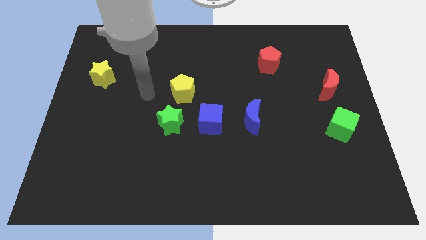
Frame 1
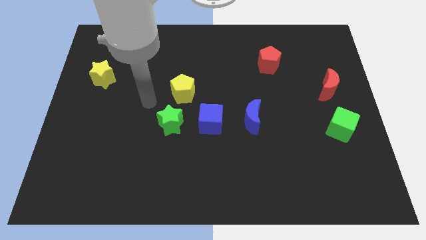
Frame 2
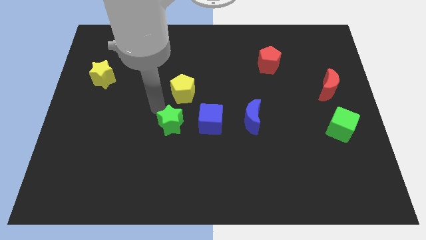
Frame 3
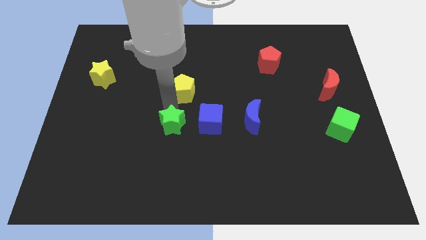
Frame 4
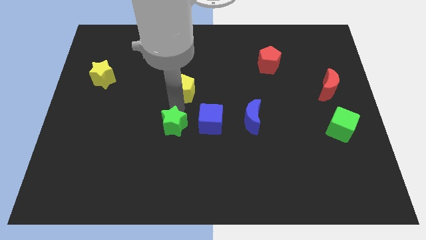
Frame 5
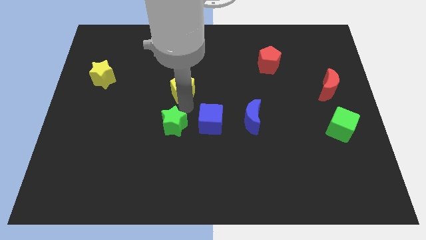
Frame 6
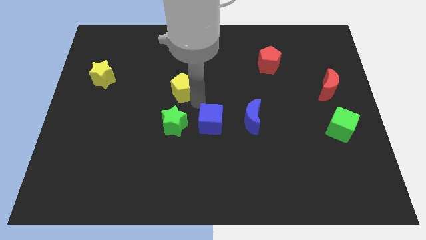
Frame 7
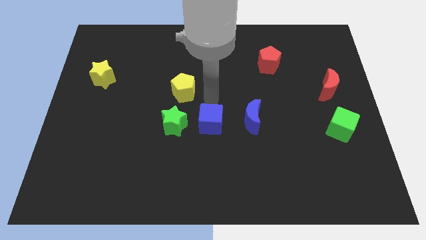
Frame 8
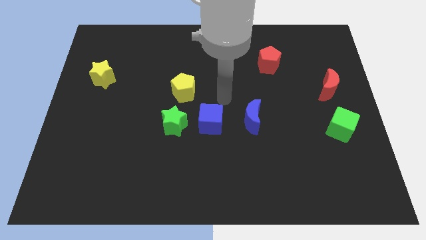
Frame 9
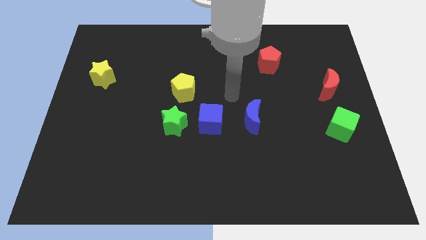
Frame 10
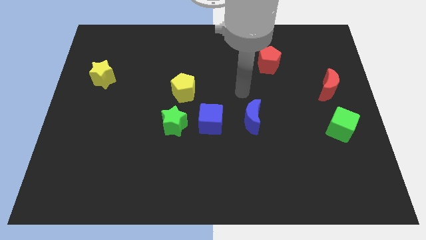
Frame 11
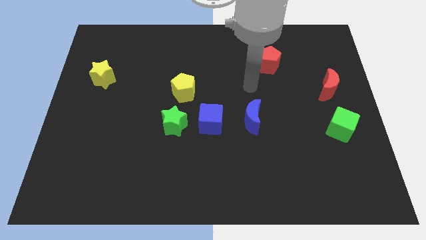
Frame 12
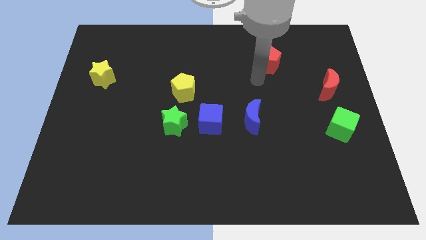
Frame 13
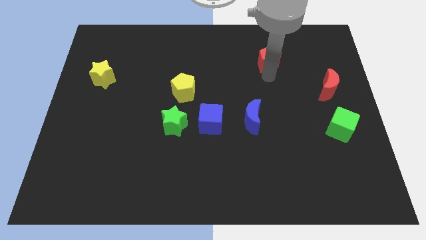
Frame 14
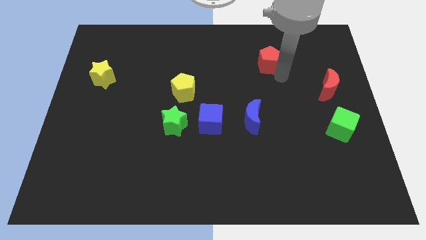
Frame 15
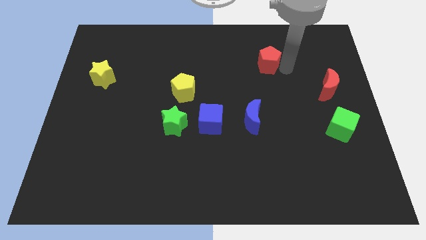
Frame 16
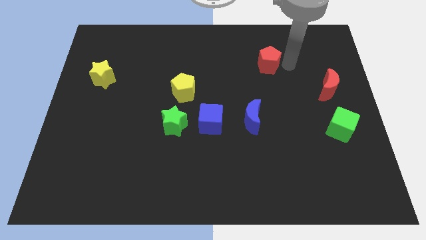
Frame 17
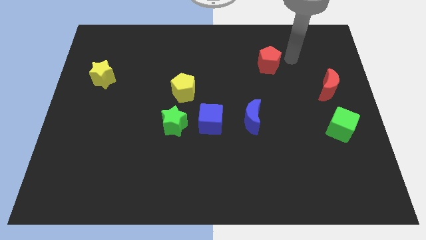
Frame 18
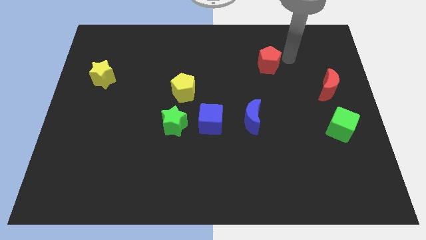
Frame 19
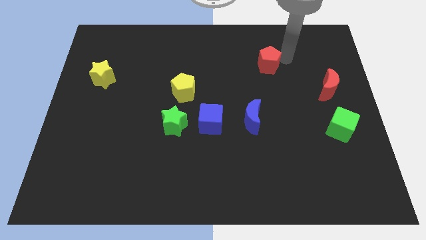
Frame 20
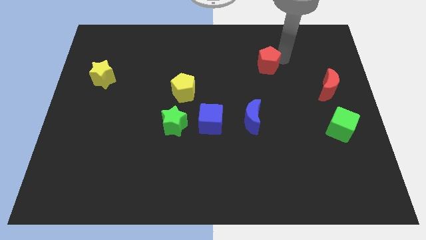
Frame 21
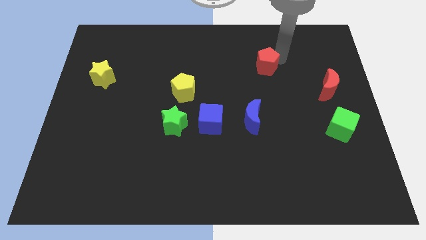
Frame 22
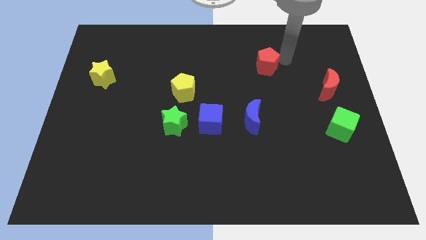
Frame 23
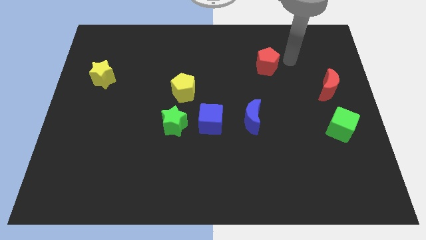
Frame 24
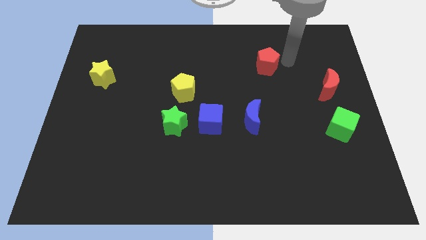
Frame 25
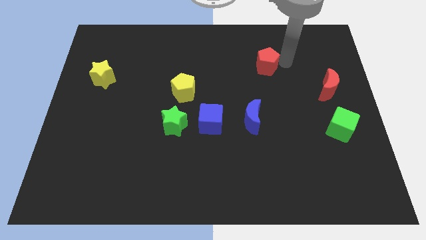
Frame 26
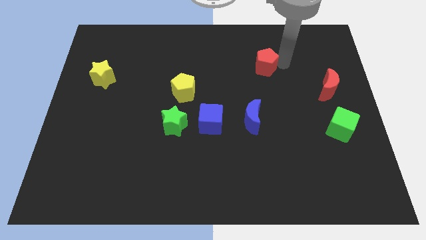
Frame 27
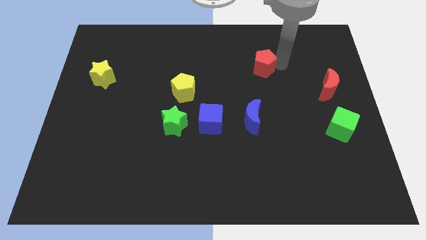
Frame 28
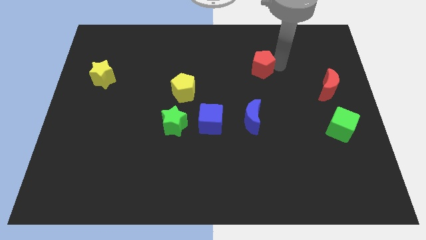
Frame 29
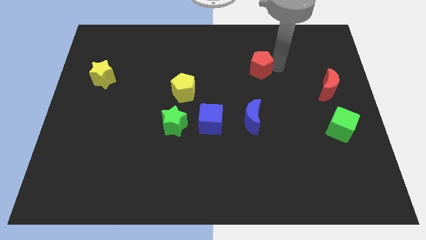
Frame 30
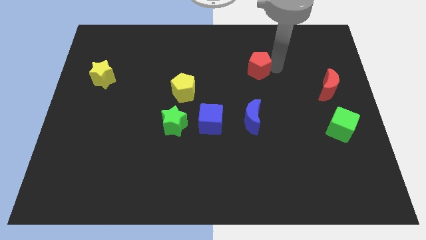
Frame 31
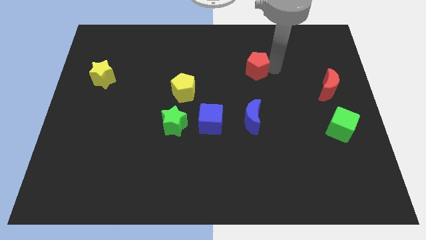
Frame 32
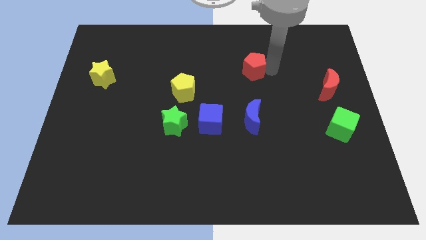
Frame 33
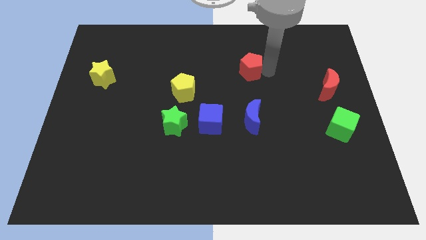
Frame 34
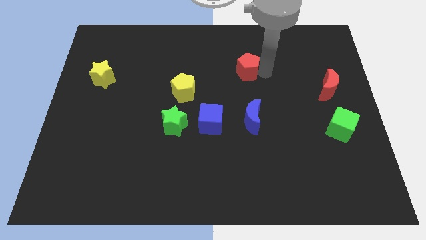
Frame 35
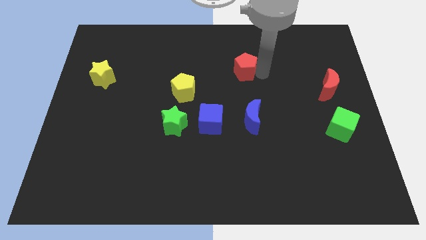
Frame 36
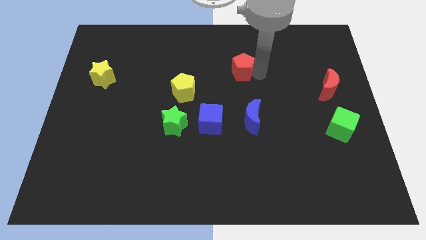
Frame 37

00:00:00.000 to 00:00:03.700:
slide the red pentagon left a little bit

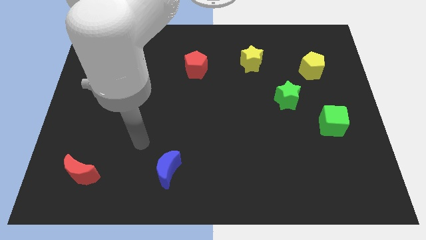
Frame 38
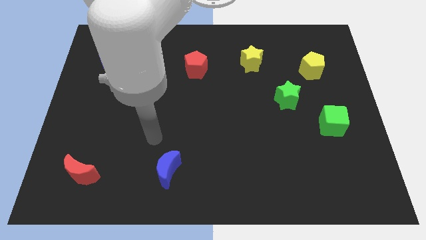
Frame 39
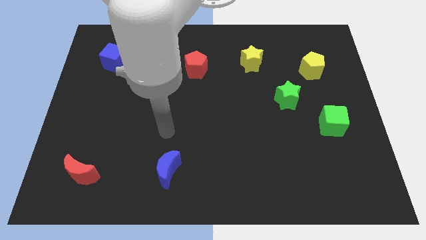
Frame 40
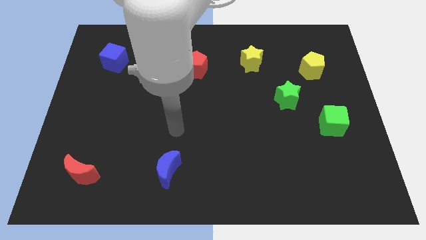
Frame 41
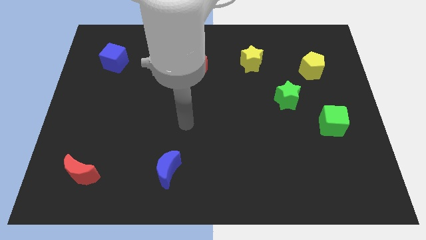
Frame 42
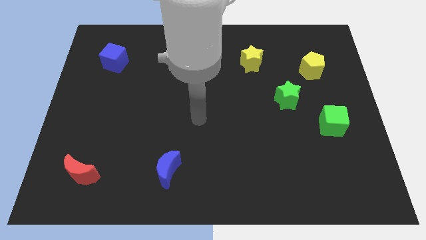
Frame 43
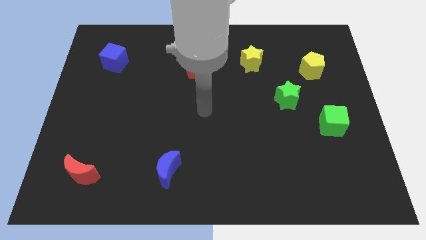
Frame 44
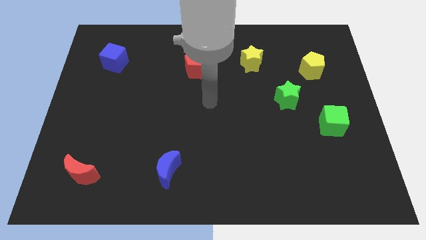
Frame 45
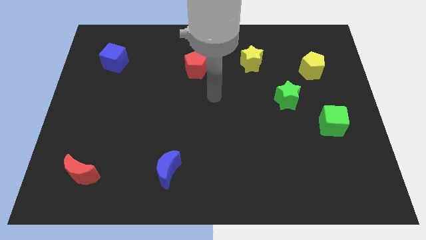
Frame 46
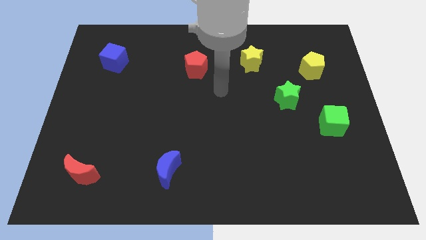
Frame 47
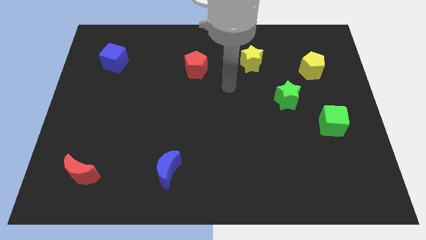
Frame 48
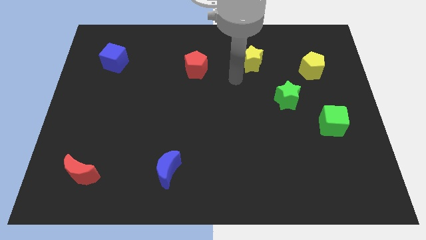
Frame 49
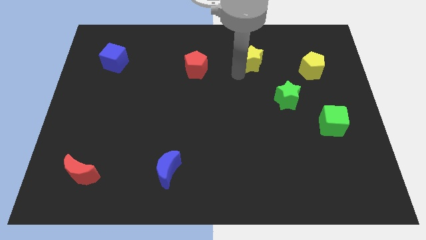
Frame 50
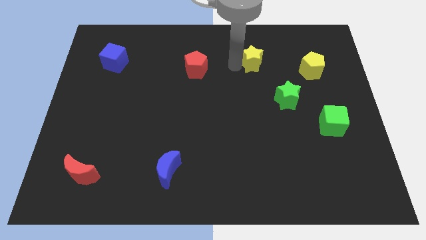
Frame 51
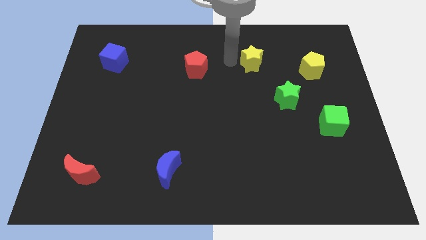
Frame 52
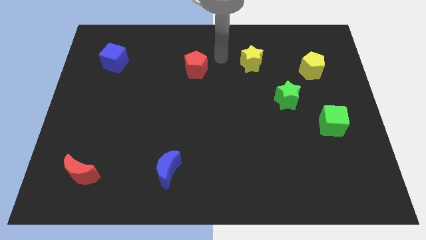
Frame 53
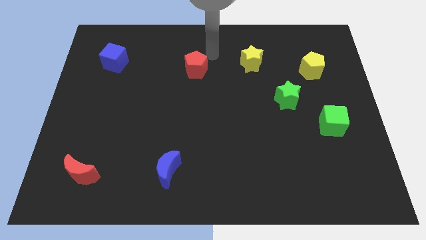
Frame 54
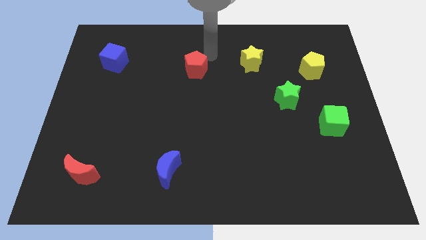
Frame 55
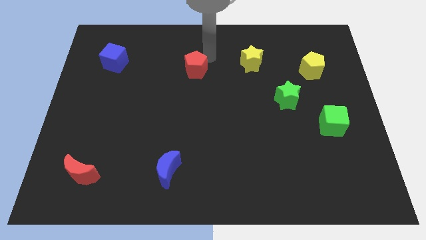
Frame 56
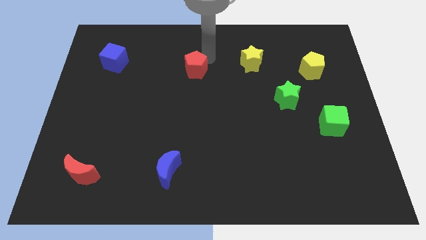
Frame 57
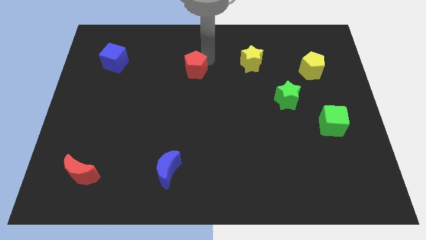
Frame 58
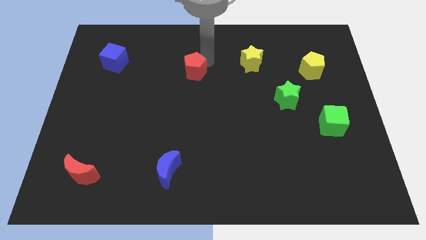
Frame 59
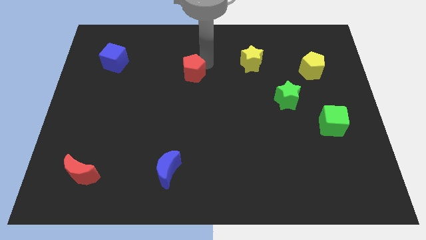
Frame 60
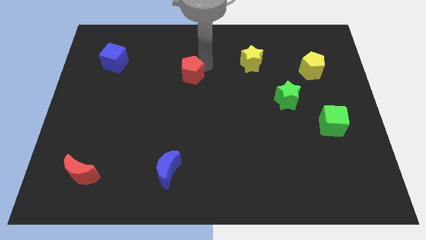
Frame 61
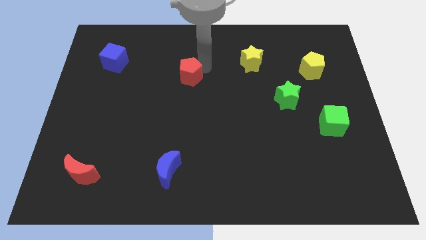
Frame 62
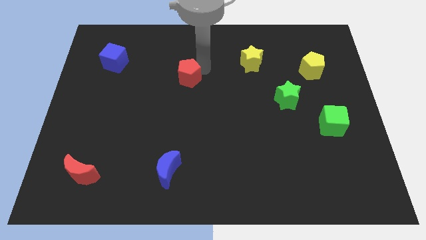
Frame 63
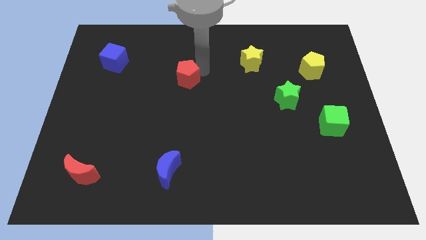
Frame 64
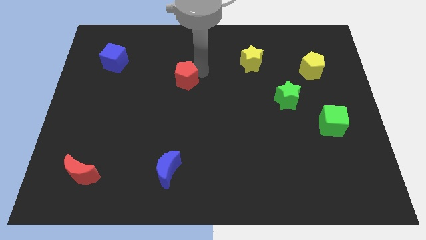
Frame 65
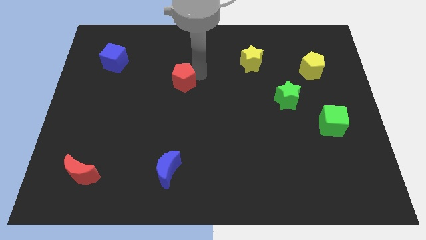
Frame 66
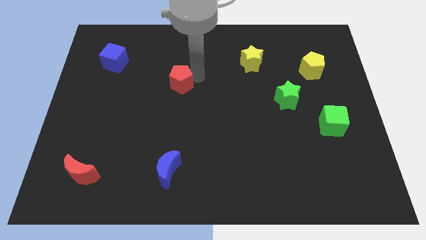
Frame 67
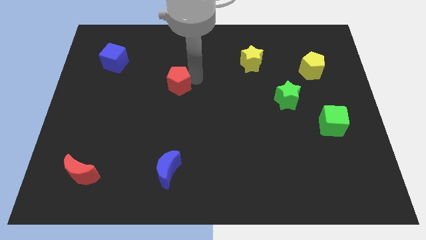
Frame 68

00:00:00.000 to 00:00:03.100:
slightly move the red pentagon downwards and then left

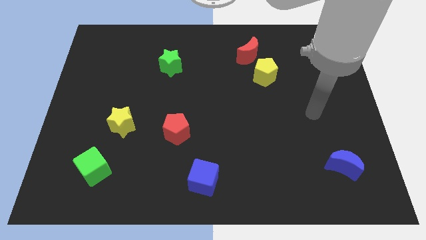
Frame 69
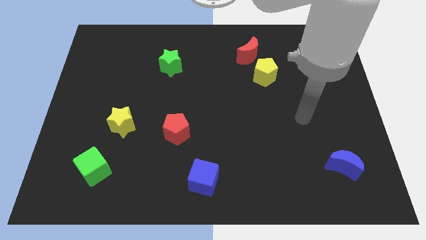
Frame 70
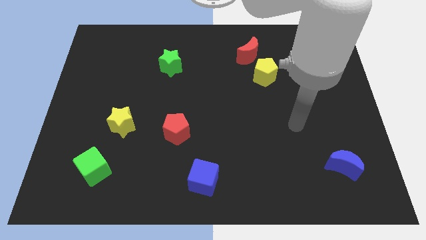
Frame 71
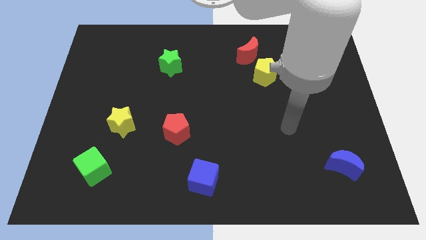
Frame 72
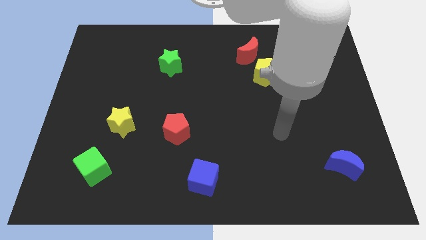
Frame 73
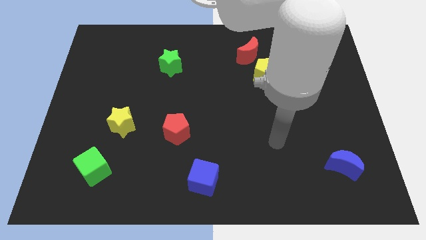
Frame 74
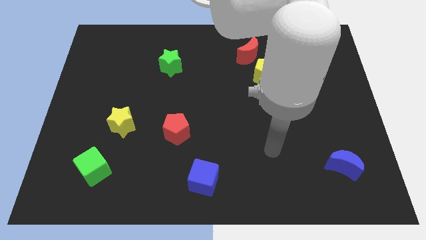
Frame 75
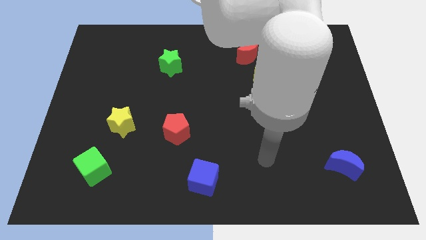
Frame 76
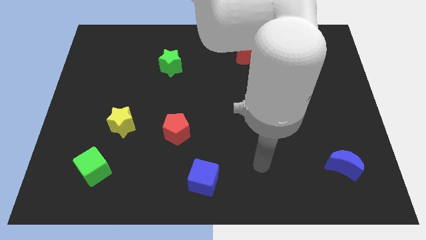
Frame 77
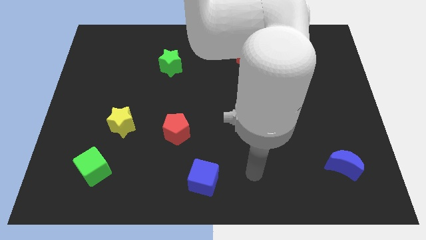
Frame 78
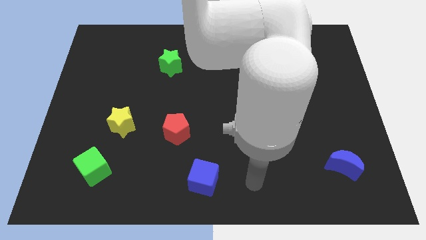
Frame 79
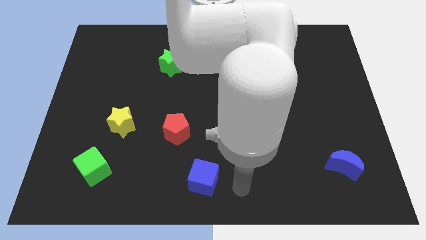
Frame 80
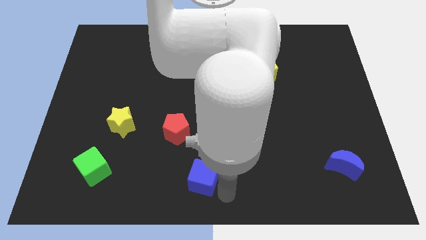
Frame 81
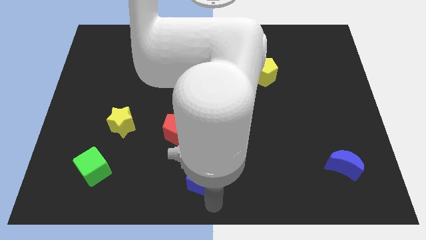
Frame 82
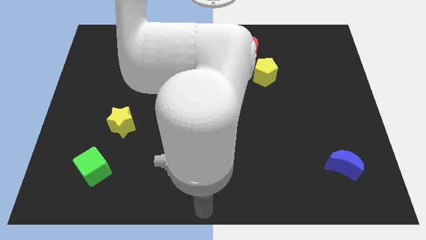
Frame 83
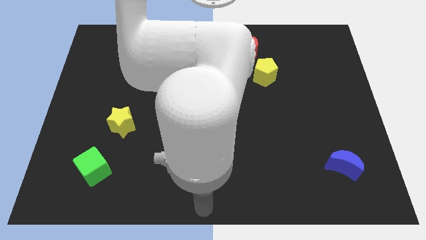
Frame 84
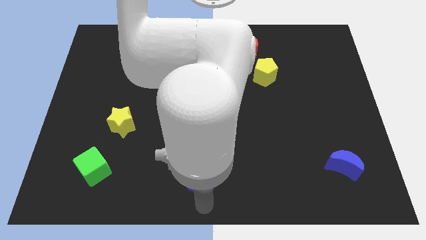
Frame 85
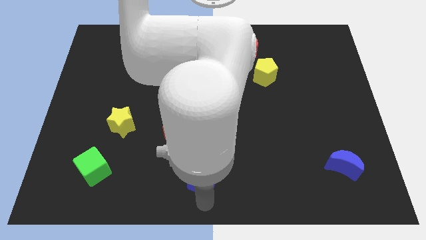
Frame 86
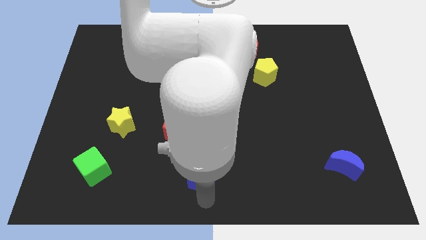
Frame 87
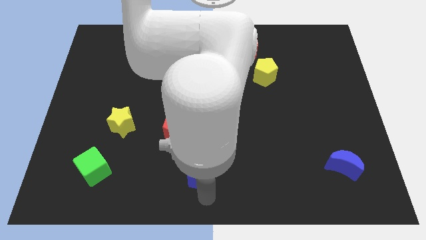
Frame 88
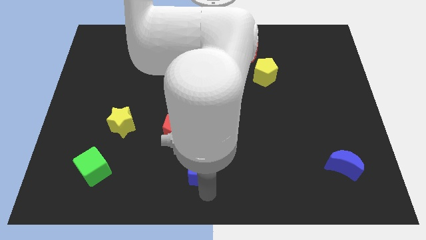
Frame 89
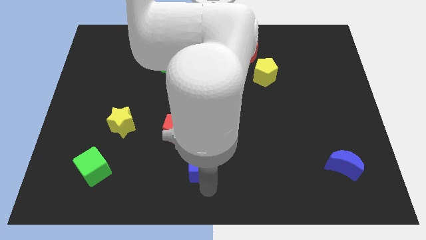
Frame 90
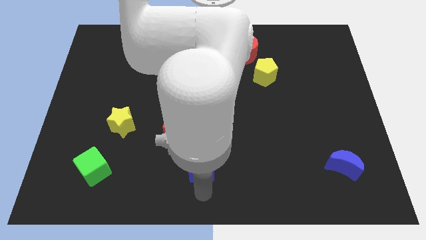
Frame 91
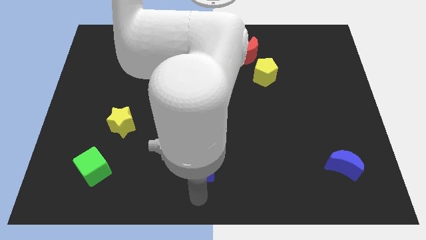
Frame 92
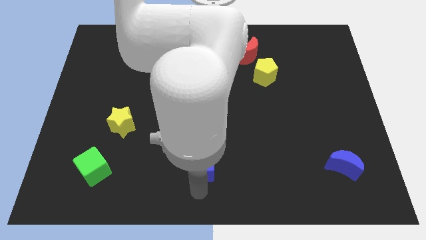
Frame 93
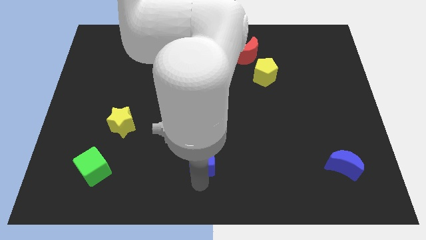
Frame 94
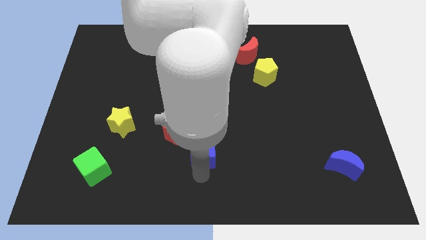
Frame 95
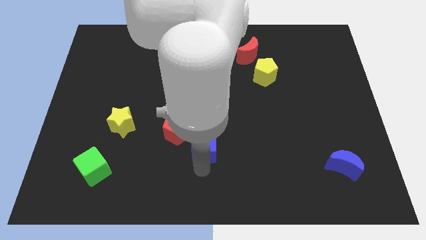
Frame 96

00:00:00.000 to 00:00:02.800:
slightly move the blue cube upwards
